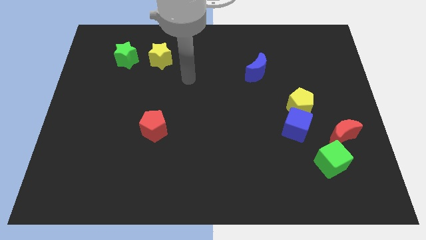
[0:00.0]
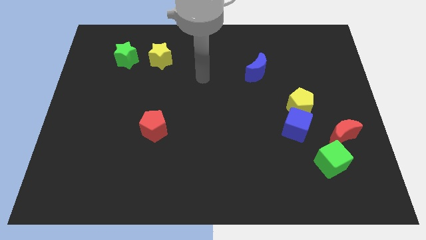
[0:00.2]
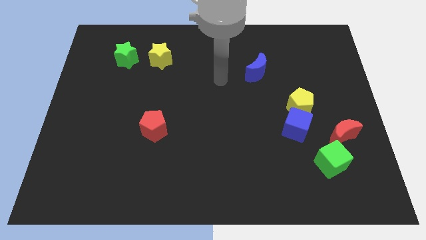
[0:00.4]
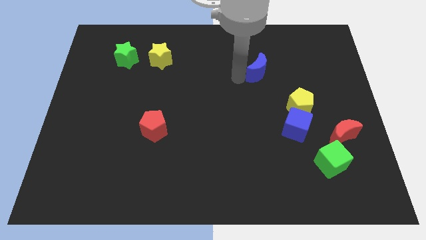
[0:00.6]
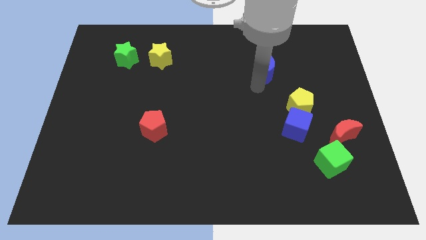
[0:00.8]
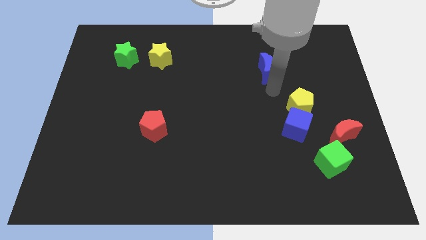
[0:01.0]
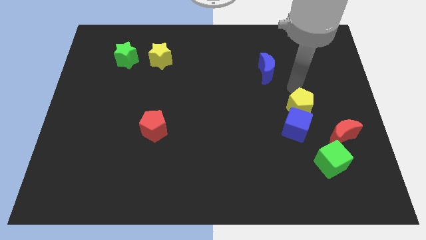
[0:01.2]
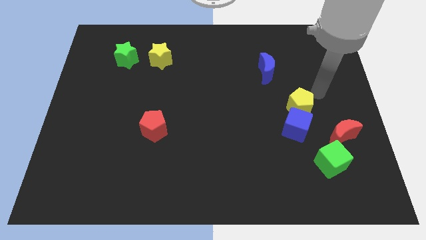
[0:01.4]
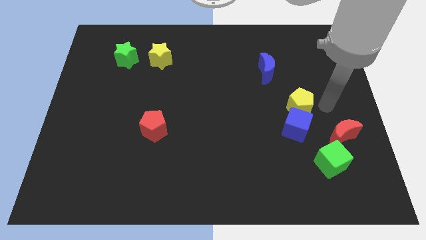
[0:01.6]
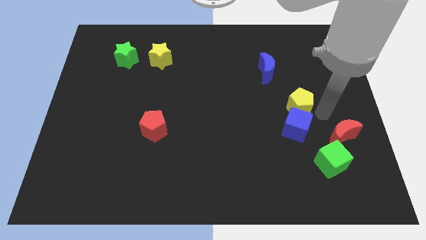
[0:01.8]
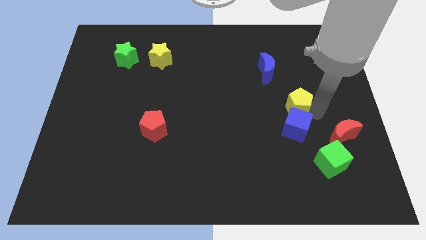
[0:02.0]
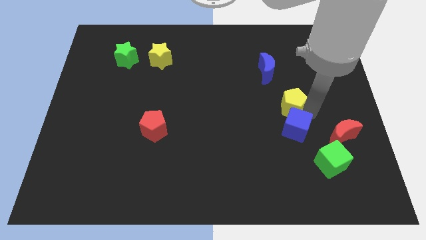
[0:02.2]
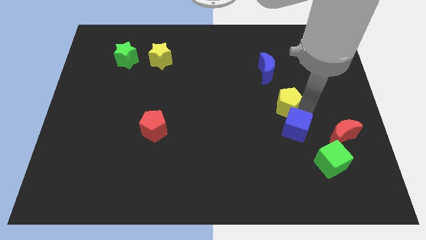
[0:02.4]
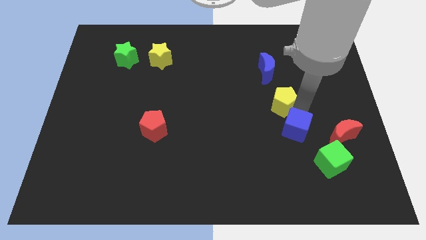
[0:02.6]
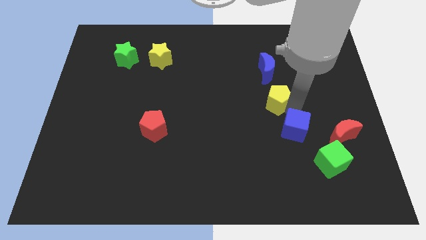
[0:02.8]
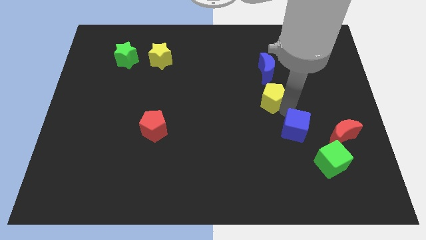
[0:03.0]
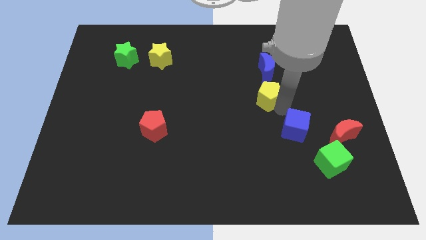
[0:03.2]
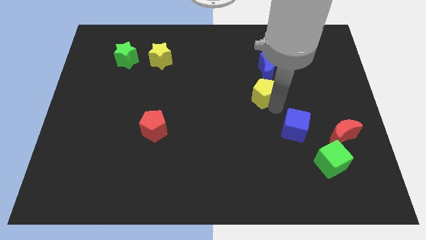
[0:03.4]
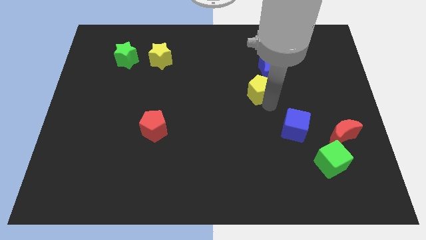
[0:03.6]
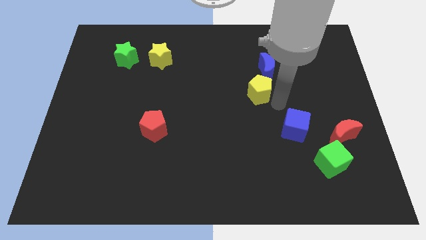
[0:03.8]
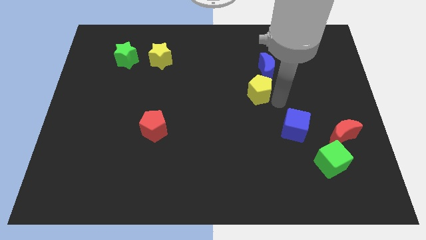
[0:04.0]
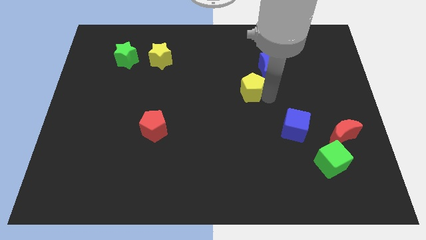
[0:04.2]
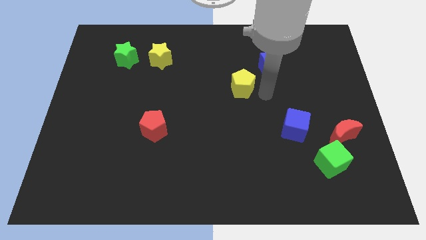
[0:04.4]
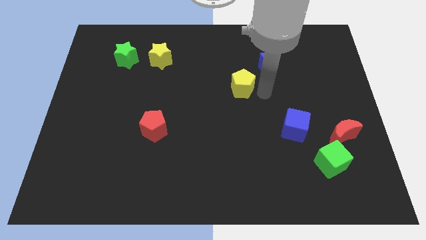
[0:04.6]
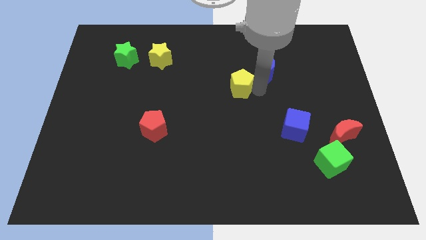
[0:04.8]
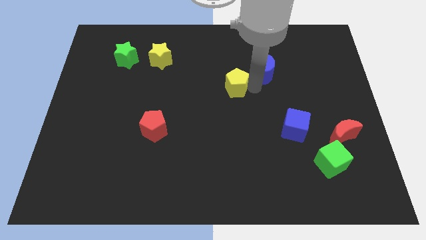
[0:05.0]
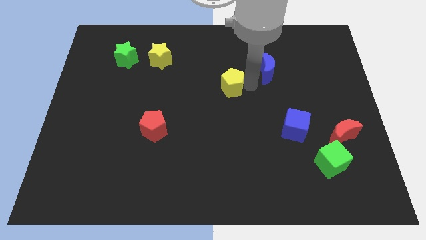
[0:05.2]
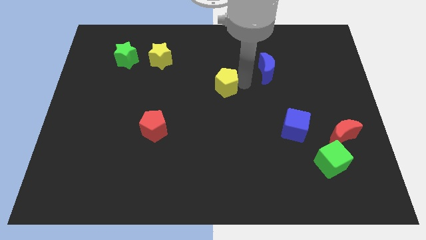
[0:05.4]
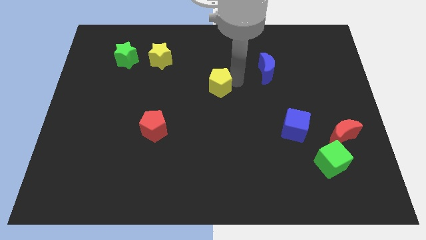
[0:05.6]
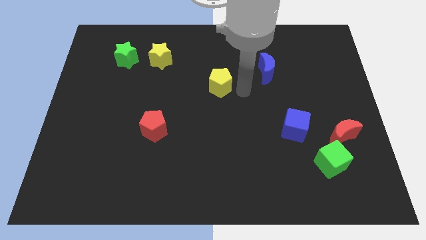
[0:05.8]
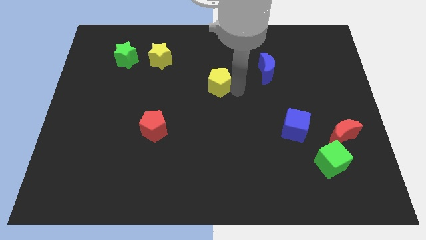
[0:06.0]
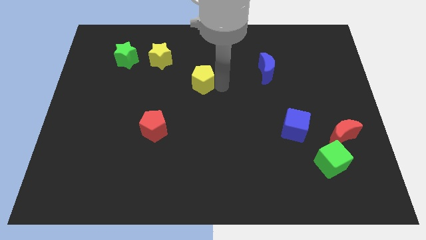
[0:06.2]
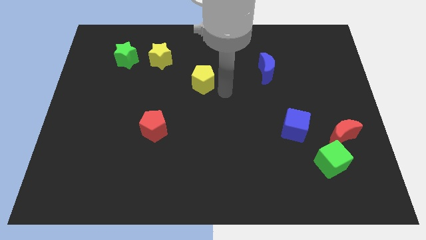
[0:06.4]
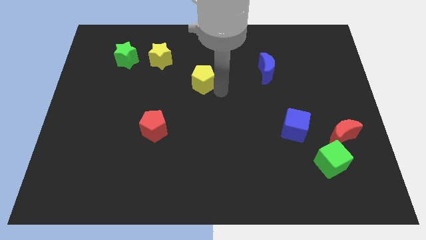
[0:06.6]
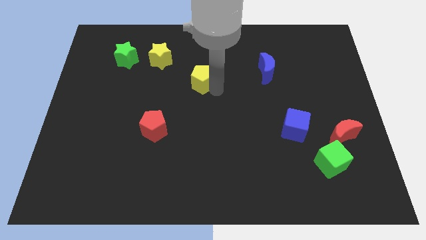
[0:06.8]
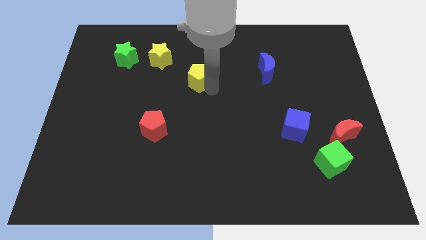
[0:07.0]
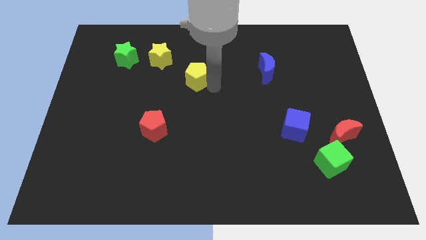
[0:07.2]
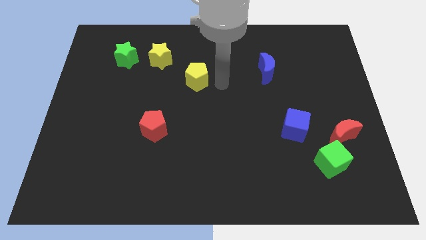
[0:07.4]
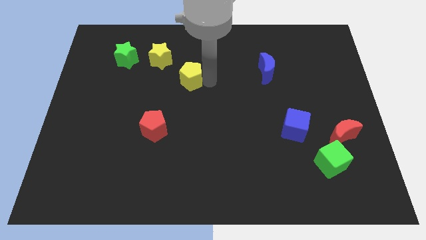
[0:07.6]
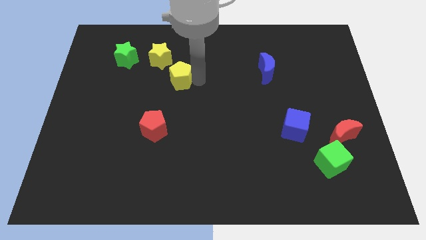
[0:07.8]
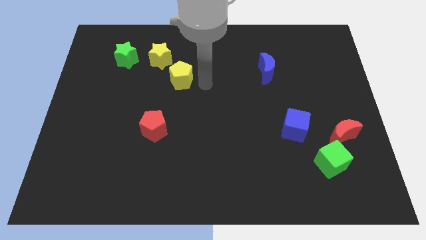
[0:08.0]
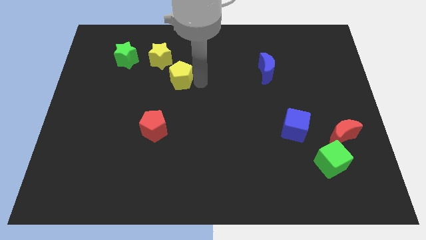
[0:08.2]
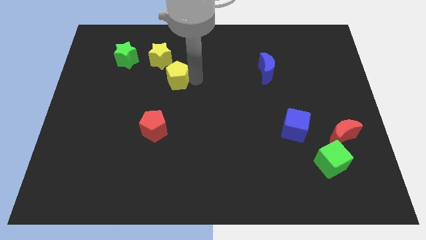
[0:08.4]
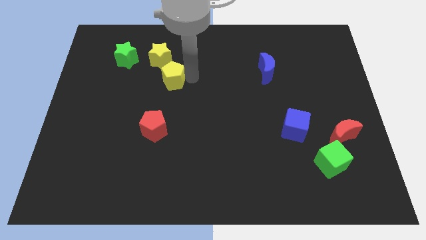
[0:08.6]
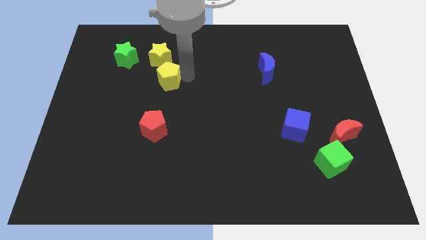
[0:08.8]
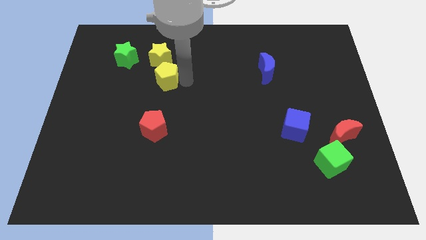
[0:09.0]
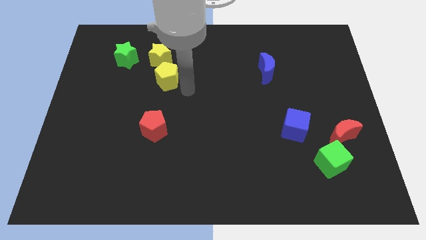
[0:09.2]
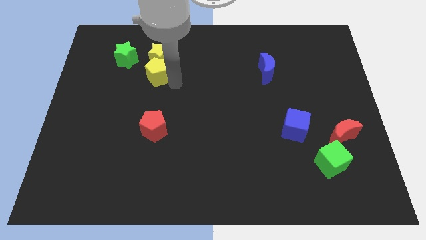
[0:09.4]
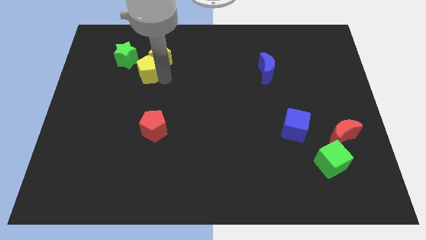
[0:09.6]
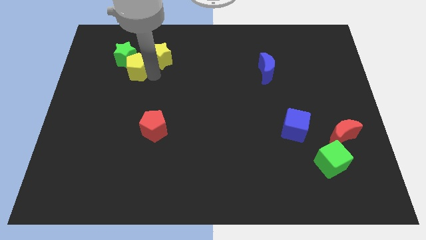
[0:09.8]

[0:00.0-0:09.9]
move the yellow pentagon close to the green star

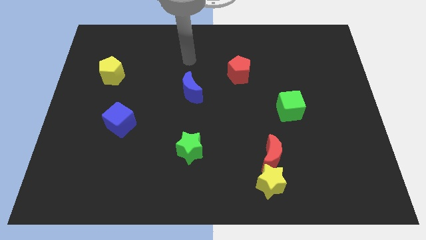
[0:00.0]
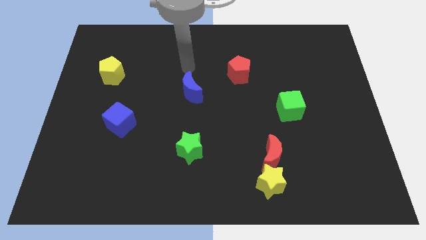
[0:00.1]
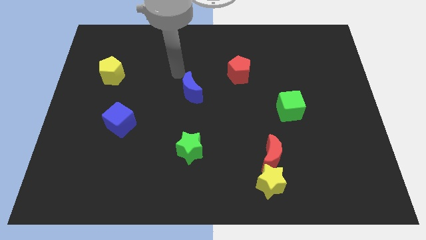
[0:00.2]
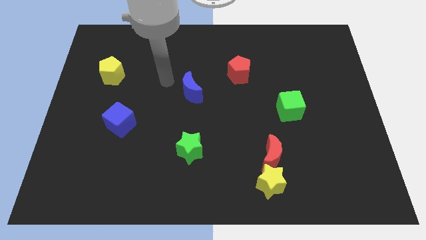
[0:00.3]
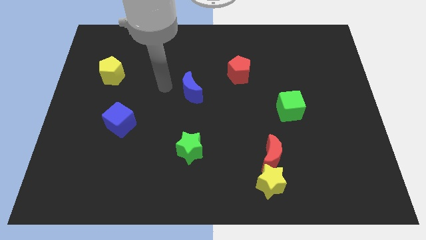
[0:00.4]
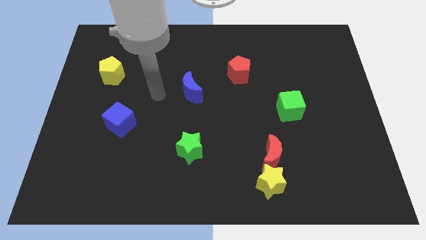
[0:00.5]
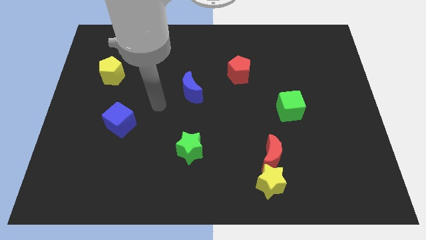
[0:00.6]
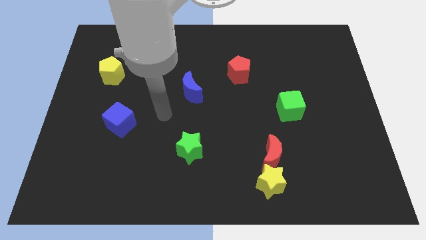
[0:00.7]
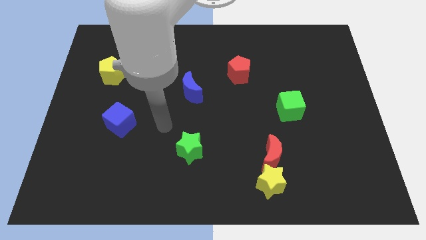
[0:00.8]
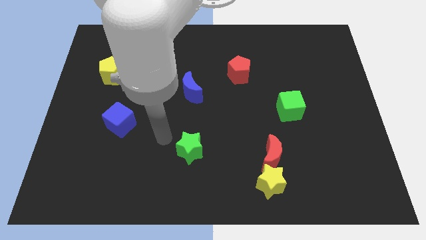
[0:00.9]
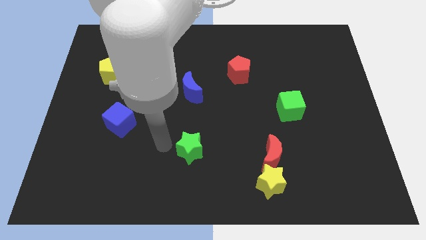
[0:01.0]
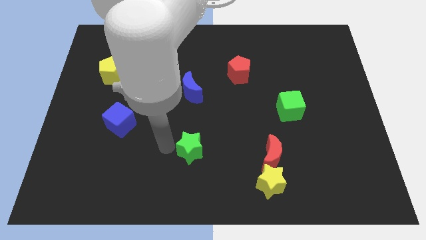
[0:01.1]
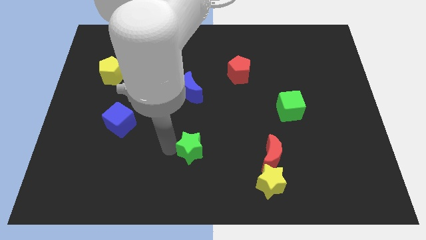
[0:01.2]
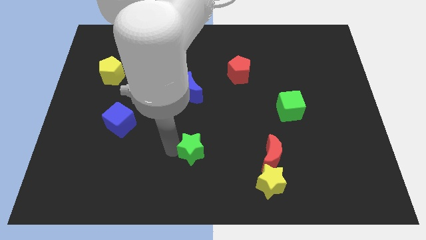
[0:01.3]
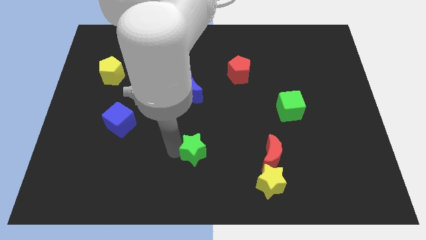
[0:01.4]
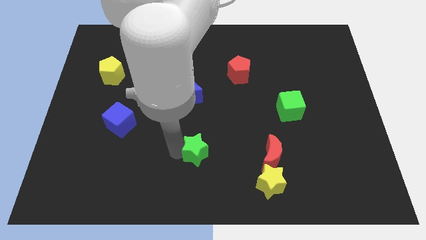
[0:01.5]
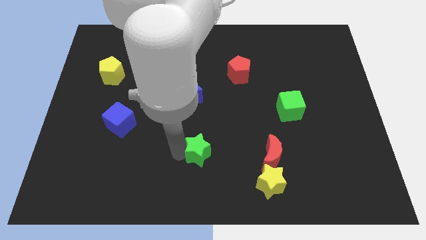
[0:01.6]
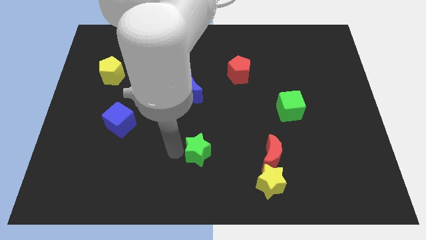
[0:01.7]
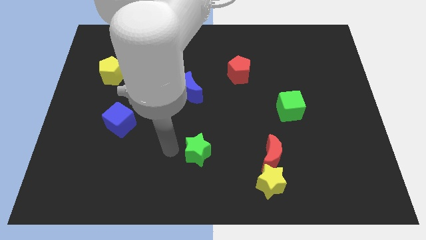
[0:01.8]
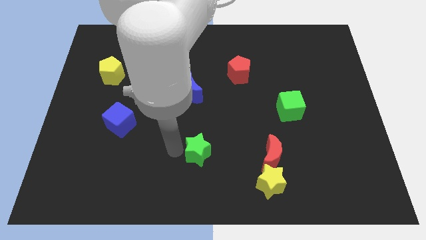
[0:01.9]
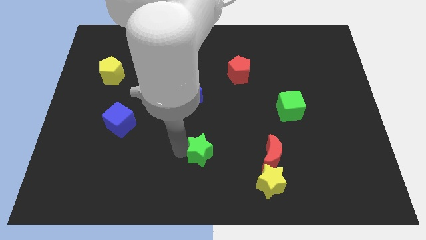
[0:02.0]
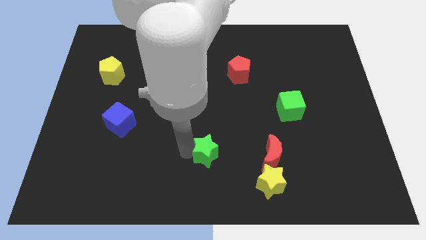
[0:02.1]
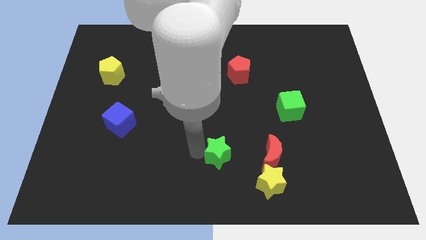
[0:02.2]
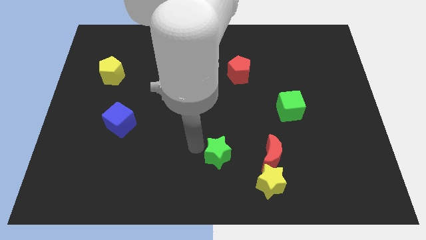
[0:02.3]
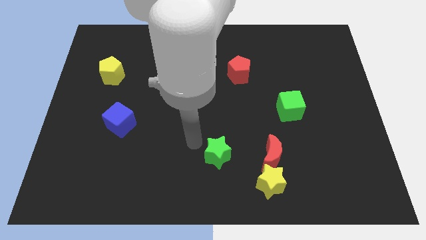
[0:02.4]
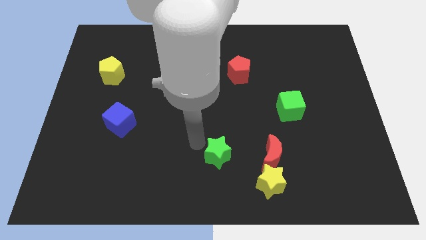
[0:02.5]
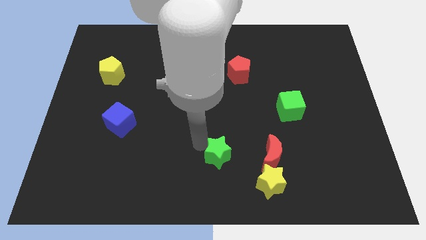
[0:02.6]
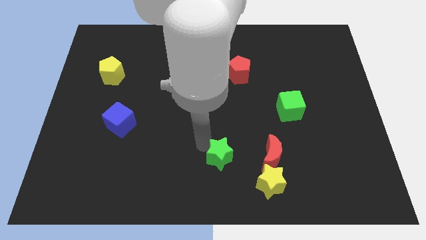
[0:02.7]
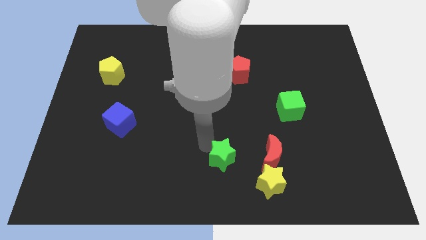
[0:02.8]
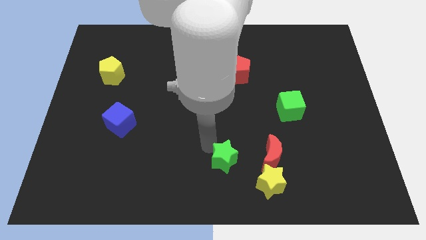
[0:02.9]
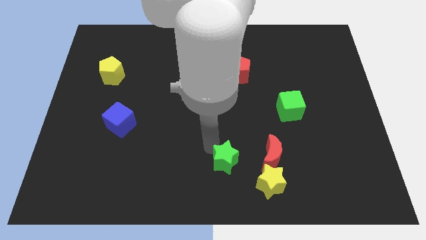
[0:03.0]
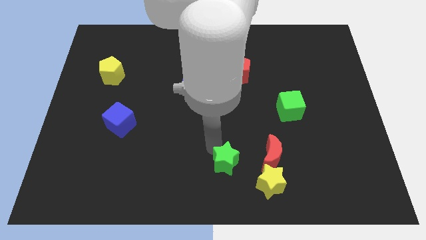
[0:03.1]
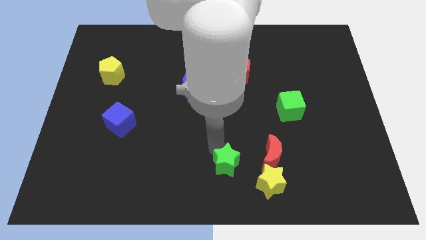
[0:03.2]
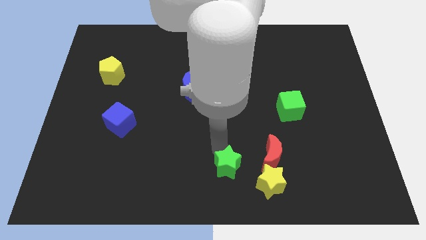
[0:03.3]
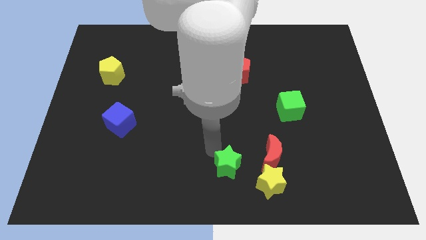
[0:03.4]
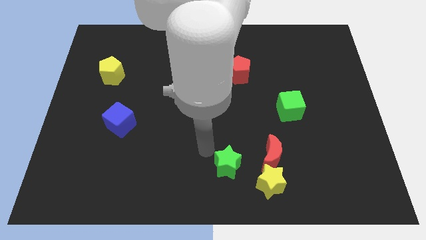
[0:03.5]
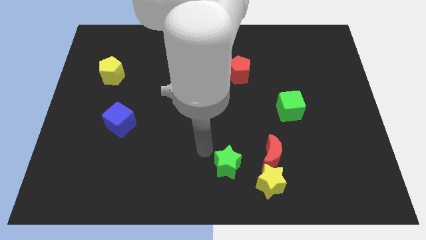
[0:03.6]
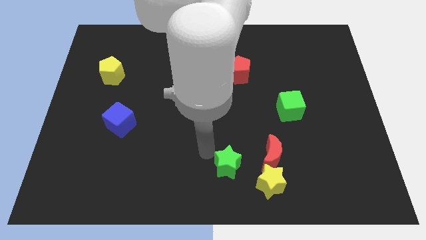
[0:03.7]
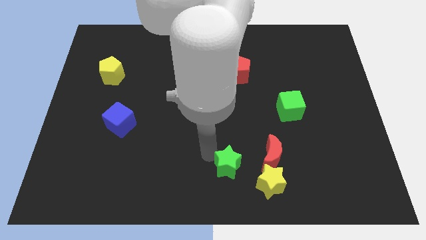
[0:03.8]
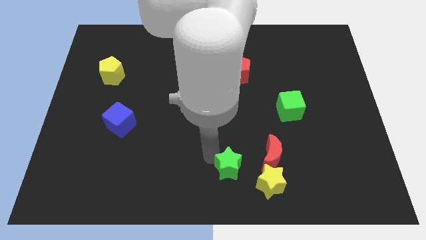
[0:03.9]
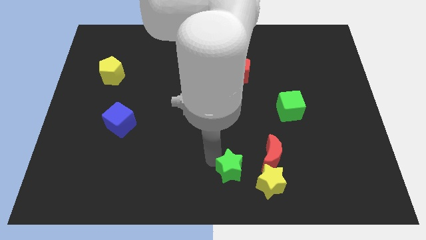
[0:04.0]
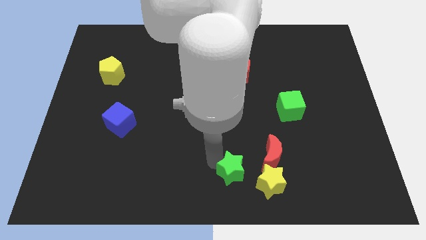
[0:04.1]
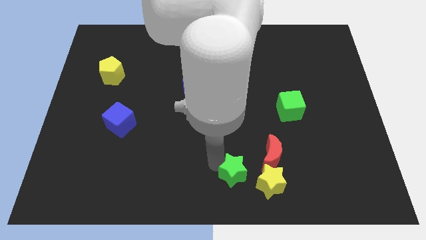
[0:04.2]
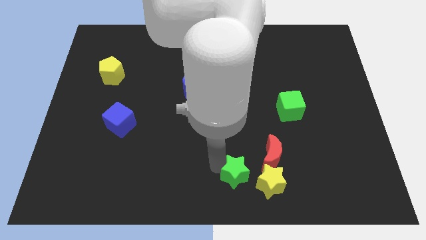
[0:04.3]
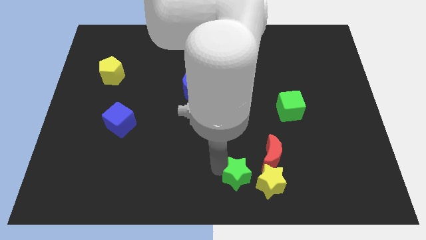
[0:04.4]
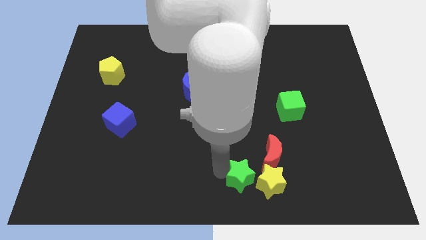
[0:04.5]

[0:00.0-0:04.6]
move the green star close to the yellow star
